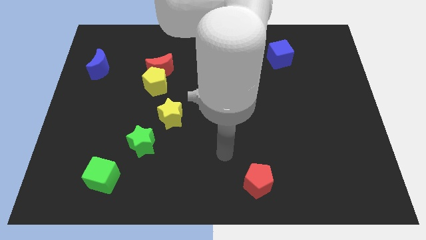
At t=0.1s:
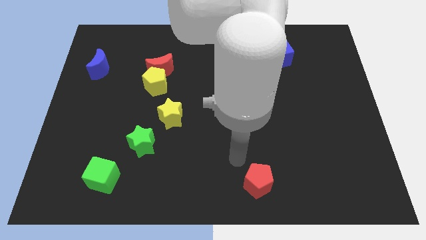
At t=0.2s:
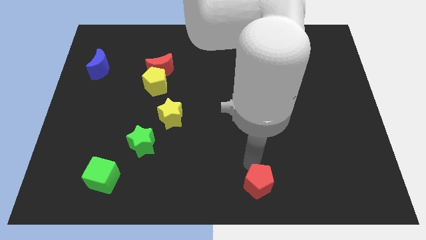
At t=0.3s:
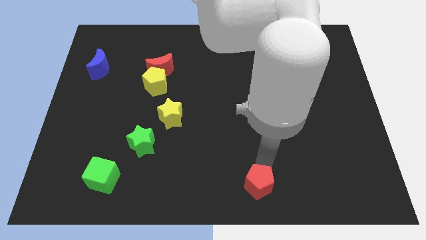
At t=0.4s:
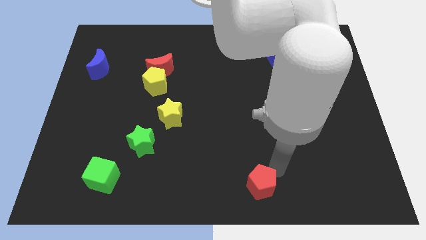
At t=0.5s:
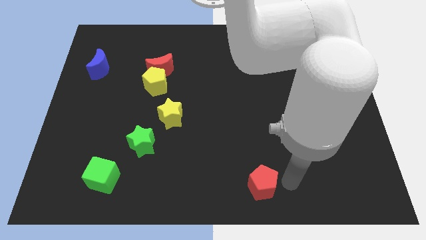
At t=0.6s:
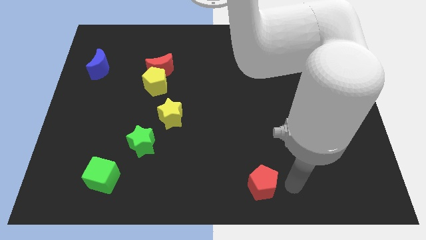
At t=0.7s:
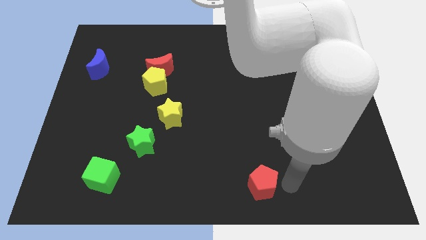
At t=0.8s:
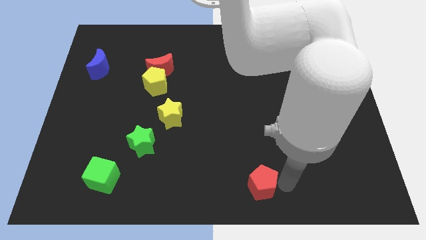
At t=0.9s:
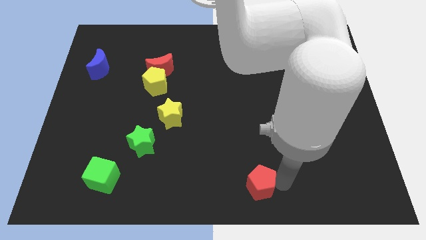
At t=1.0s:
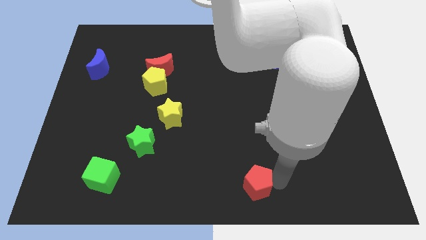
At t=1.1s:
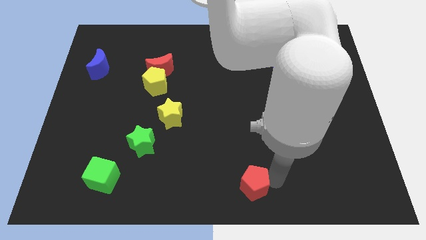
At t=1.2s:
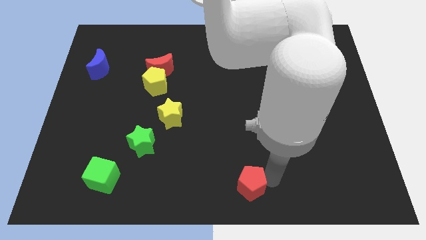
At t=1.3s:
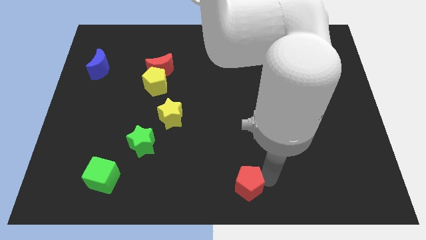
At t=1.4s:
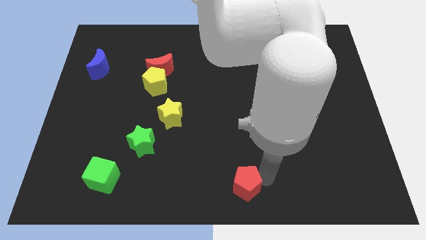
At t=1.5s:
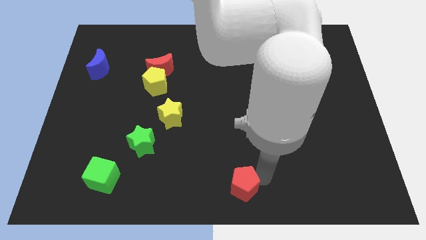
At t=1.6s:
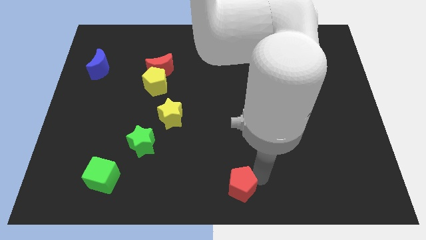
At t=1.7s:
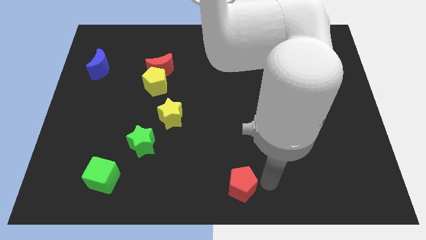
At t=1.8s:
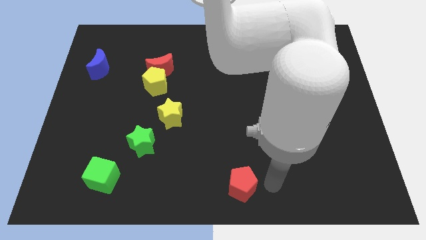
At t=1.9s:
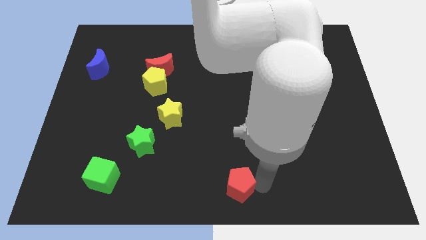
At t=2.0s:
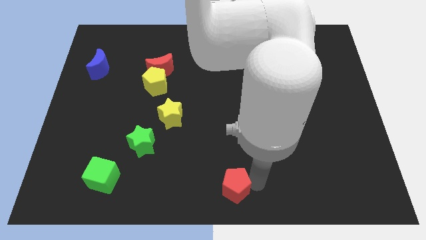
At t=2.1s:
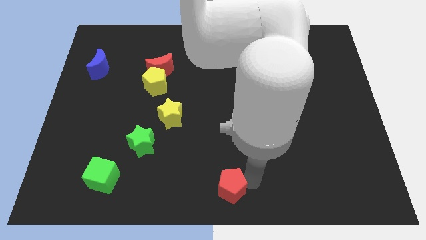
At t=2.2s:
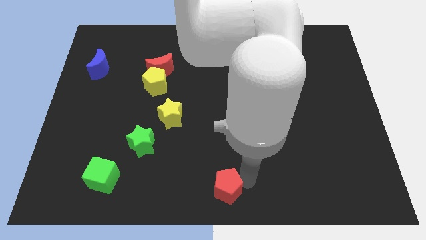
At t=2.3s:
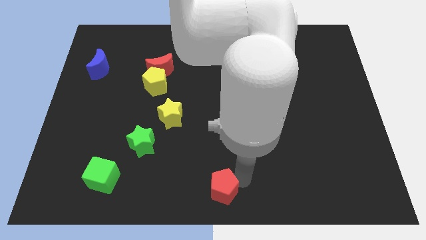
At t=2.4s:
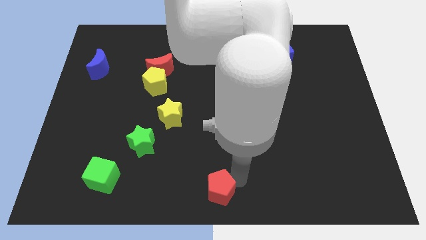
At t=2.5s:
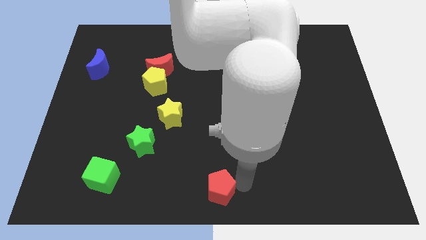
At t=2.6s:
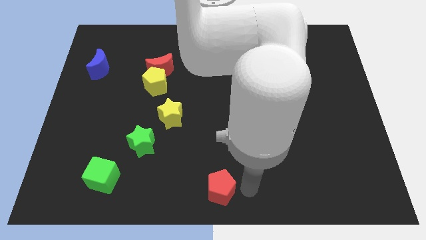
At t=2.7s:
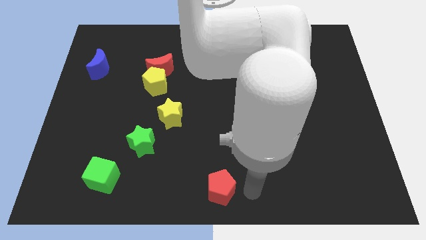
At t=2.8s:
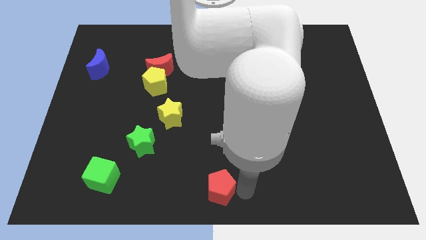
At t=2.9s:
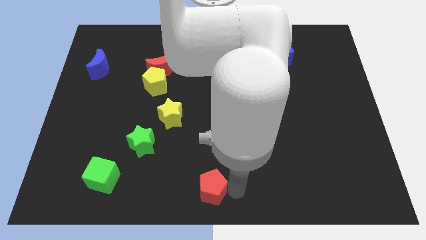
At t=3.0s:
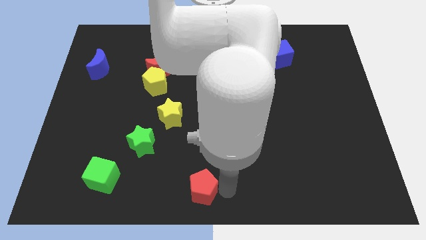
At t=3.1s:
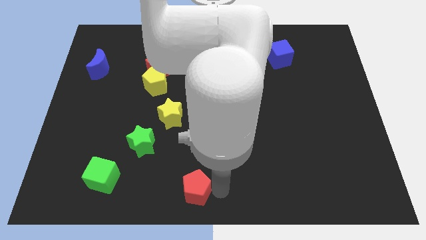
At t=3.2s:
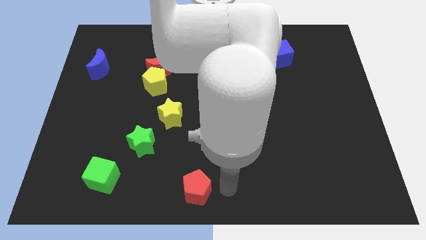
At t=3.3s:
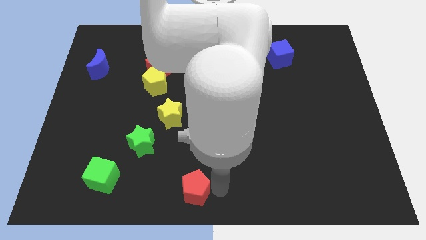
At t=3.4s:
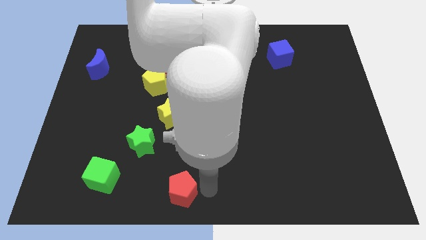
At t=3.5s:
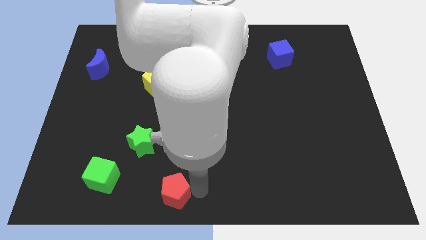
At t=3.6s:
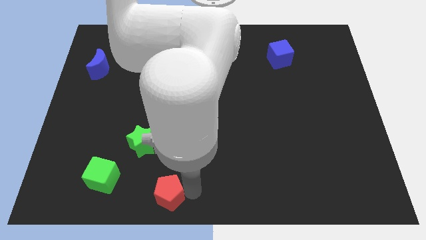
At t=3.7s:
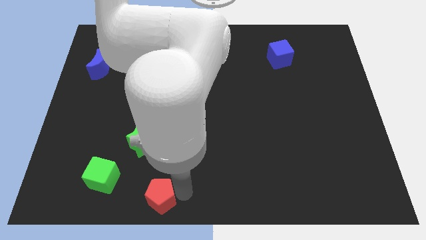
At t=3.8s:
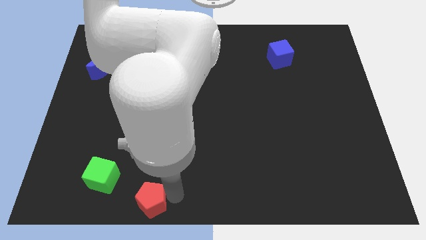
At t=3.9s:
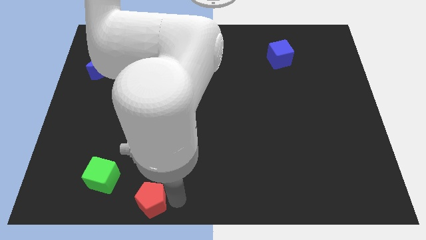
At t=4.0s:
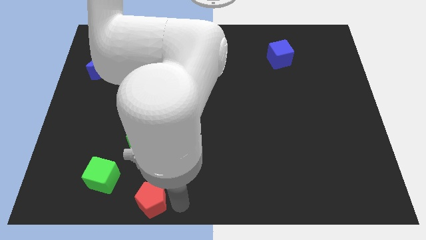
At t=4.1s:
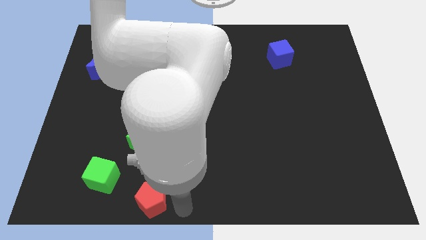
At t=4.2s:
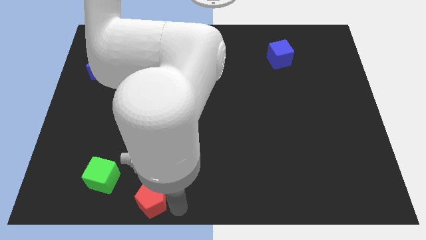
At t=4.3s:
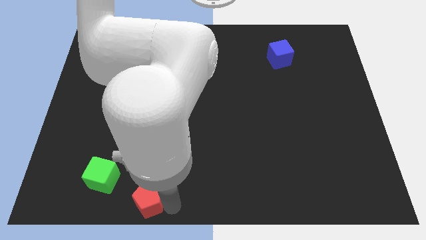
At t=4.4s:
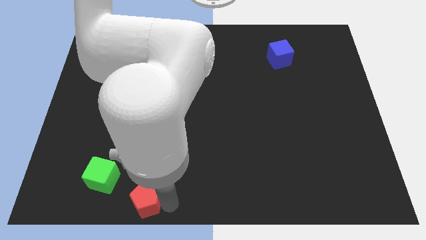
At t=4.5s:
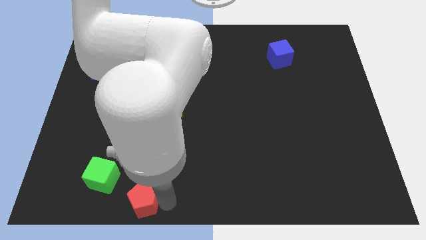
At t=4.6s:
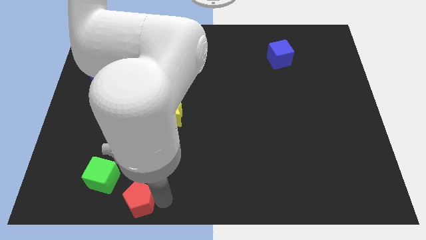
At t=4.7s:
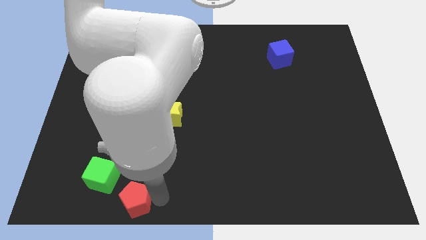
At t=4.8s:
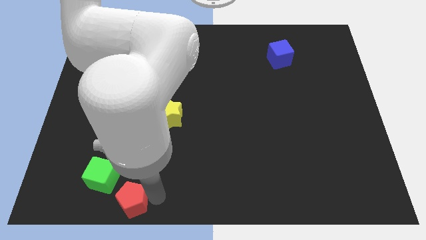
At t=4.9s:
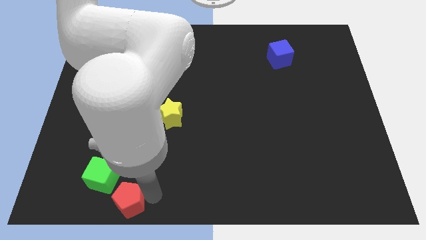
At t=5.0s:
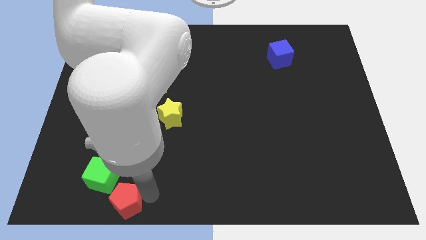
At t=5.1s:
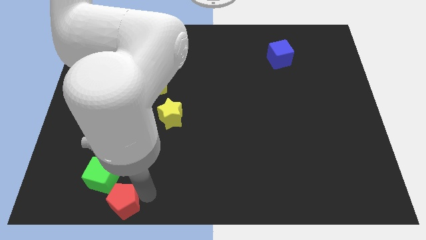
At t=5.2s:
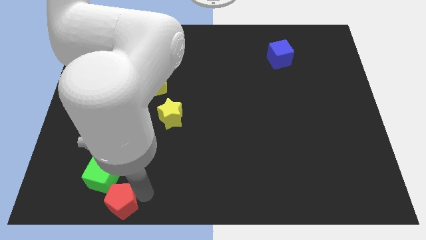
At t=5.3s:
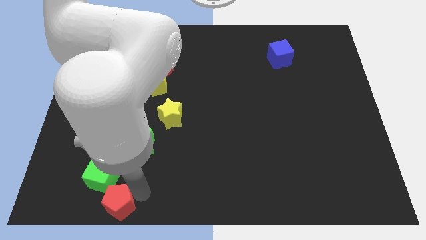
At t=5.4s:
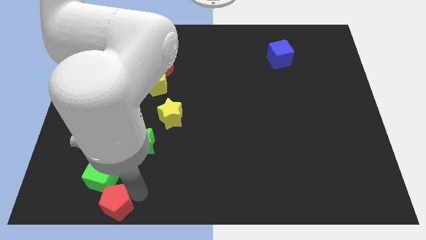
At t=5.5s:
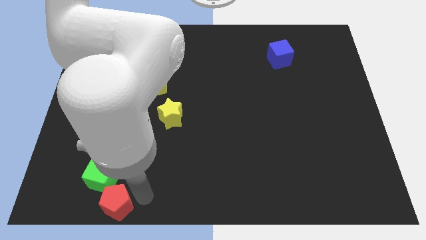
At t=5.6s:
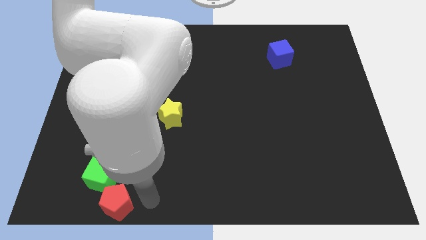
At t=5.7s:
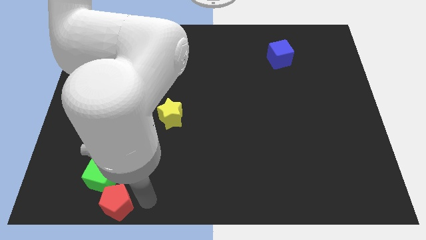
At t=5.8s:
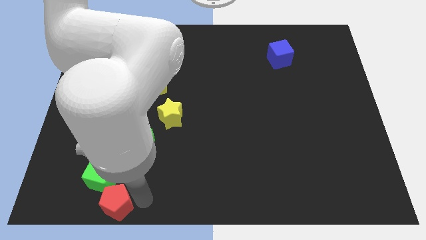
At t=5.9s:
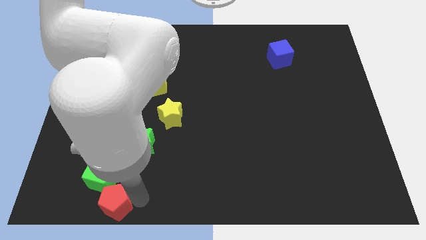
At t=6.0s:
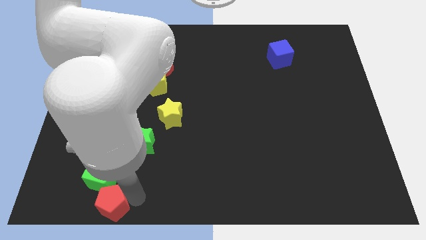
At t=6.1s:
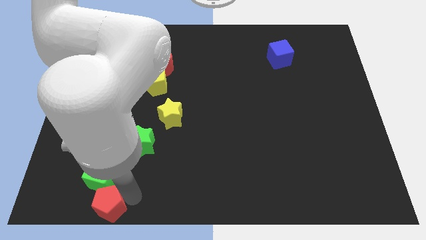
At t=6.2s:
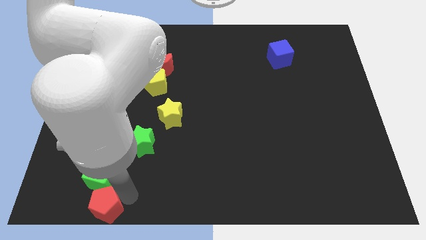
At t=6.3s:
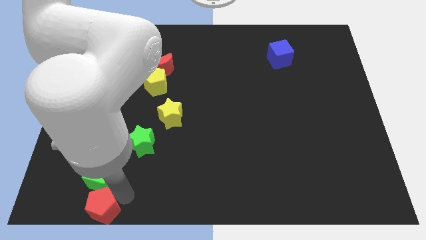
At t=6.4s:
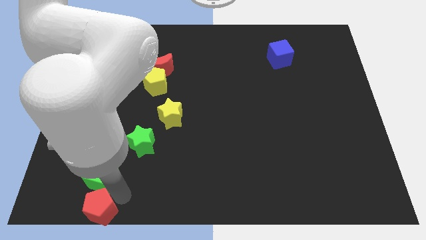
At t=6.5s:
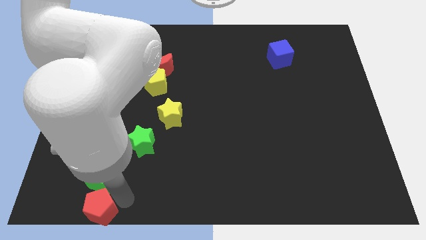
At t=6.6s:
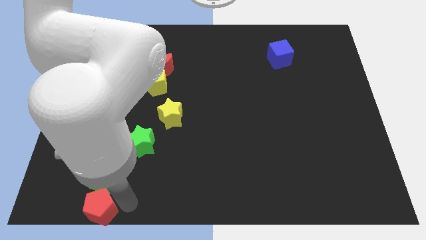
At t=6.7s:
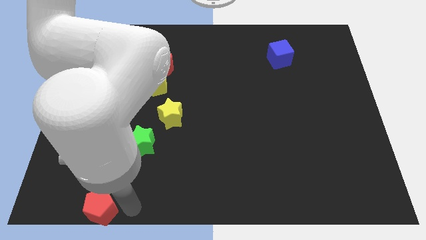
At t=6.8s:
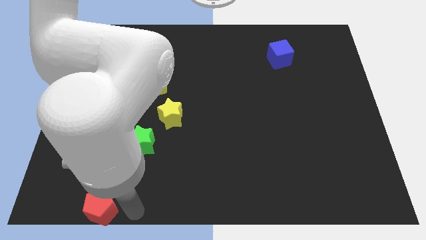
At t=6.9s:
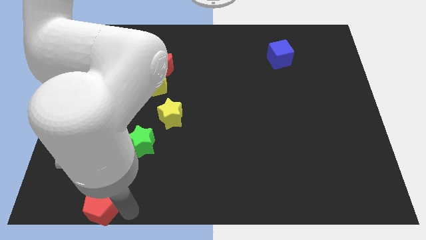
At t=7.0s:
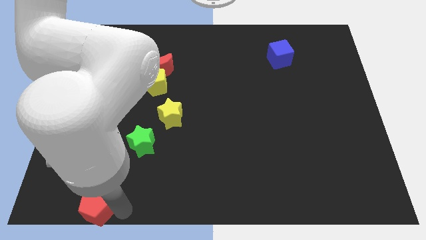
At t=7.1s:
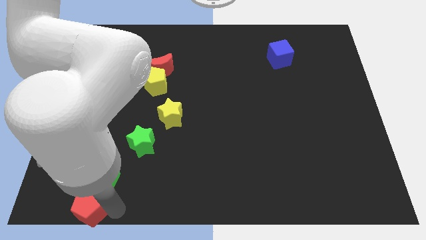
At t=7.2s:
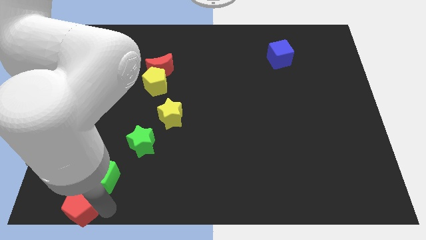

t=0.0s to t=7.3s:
put the red pentagon to the bottom left
